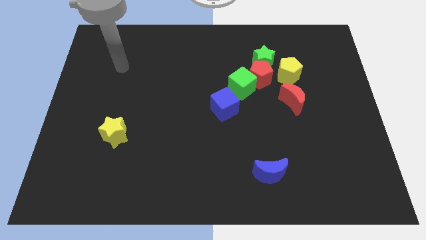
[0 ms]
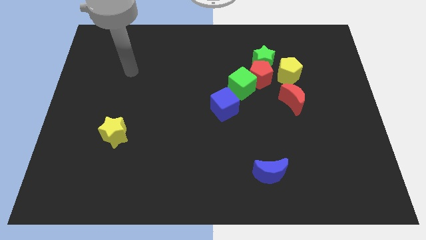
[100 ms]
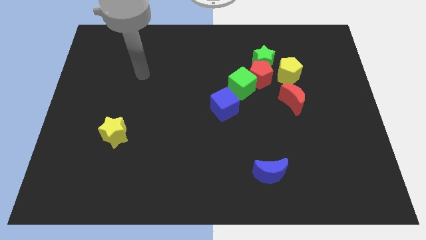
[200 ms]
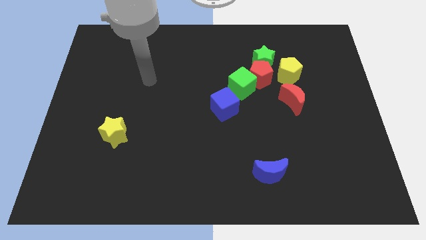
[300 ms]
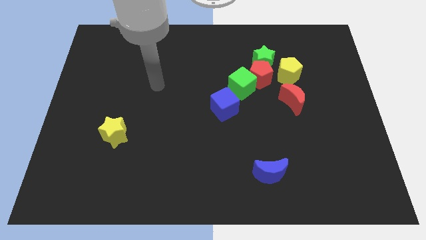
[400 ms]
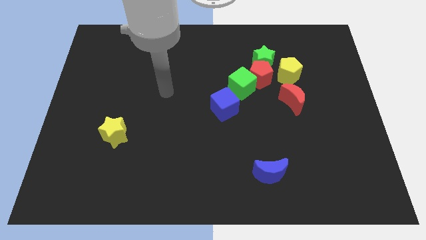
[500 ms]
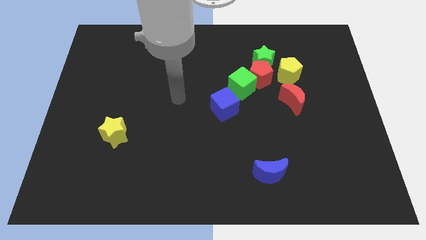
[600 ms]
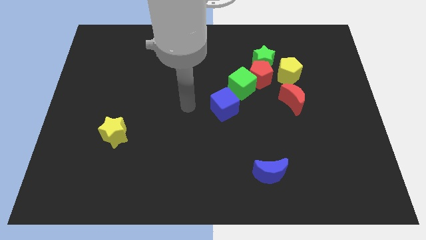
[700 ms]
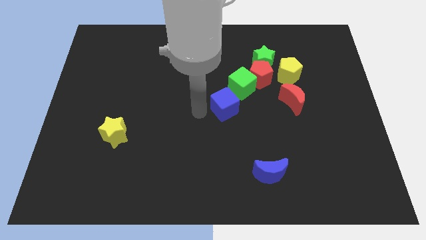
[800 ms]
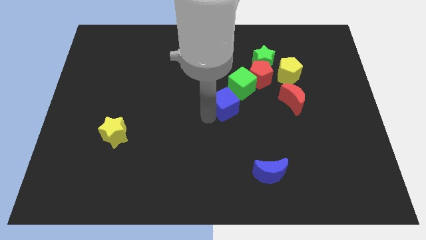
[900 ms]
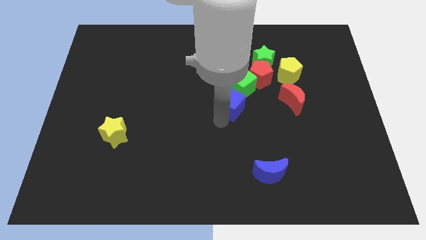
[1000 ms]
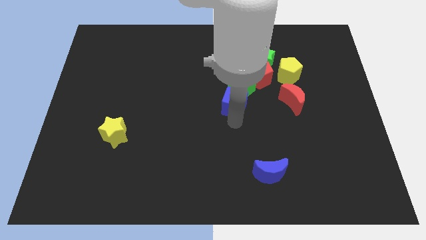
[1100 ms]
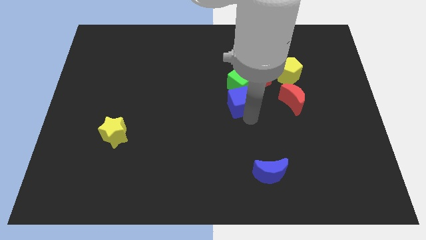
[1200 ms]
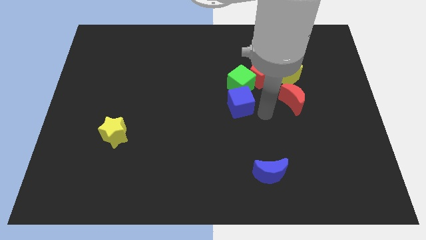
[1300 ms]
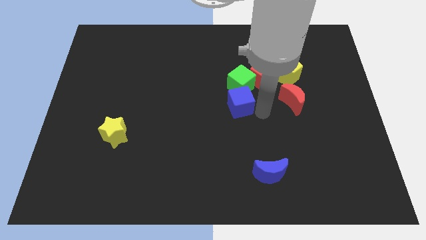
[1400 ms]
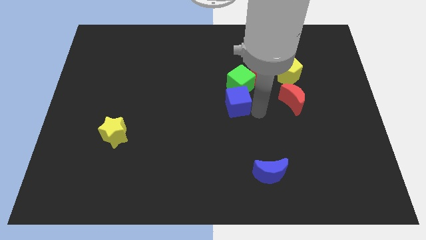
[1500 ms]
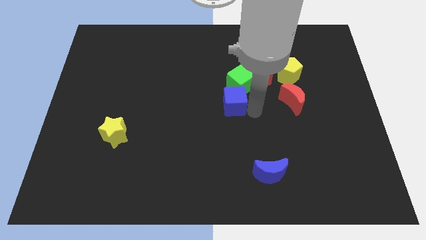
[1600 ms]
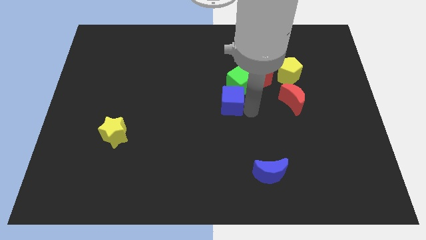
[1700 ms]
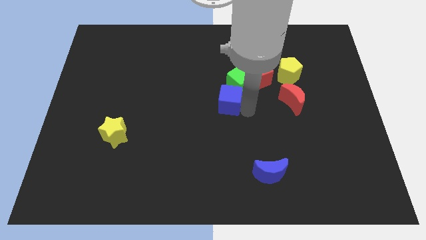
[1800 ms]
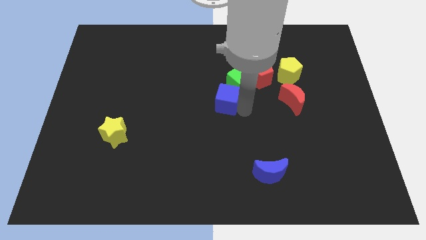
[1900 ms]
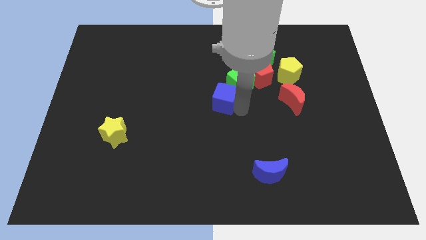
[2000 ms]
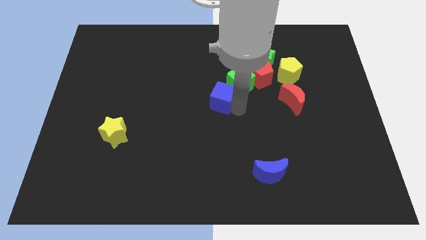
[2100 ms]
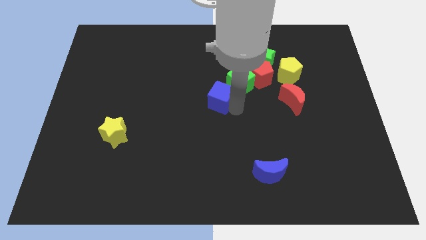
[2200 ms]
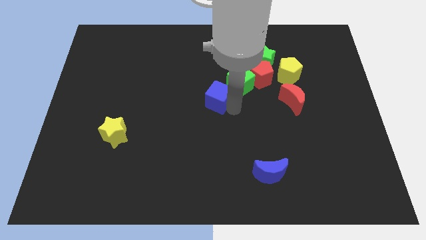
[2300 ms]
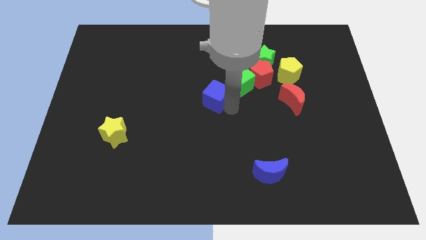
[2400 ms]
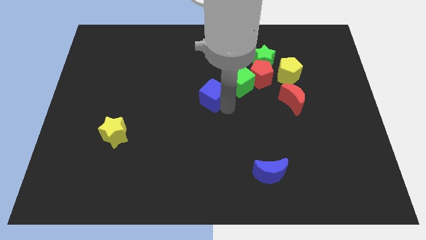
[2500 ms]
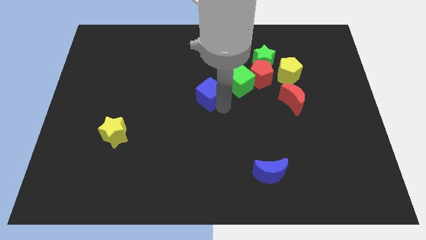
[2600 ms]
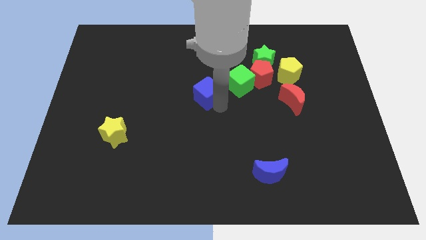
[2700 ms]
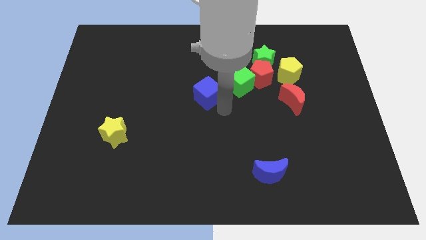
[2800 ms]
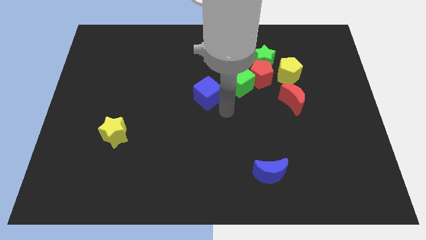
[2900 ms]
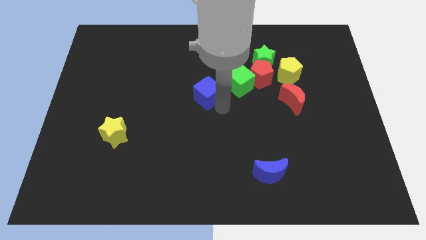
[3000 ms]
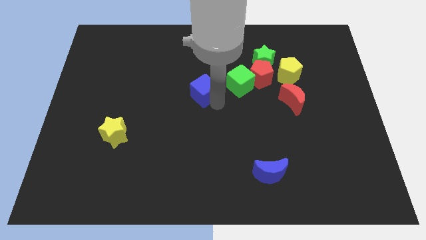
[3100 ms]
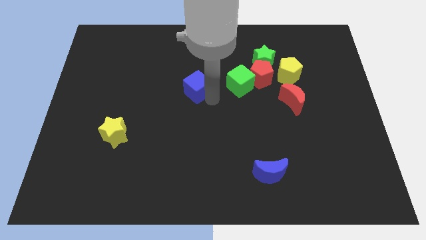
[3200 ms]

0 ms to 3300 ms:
push the blue cube up and to the left diagonally a little

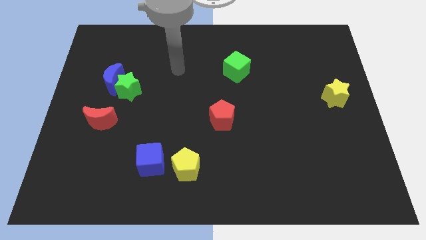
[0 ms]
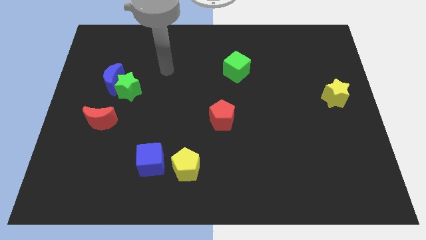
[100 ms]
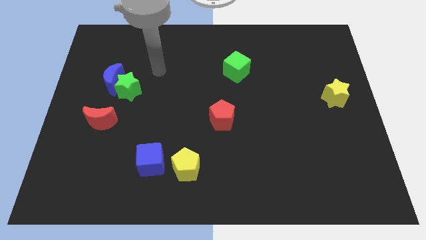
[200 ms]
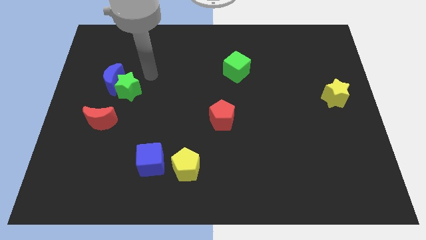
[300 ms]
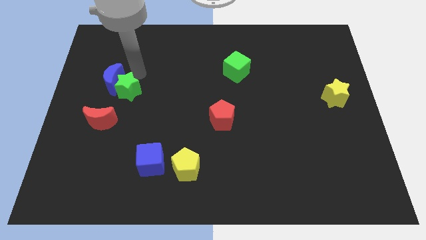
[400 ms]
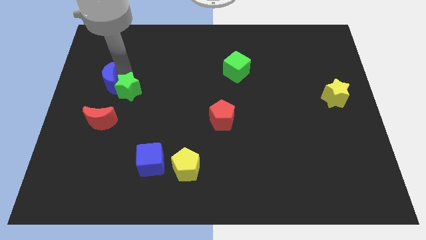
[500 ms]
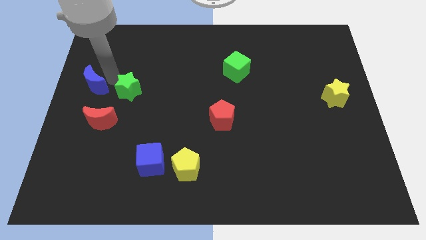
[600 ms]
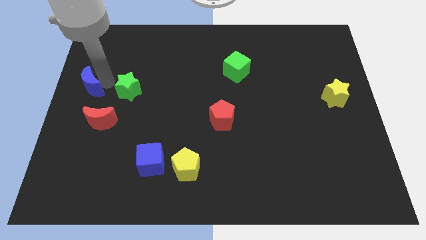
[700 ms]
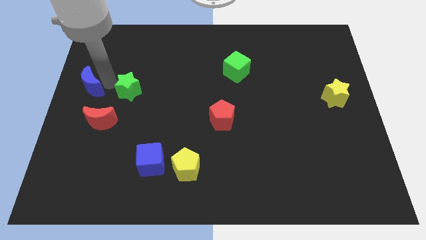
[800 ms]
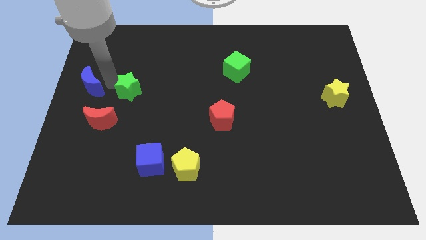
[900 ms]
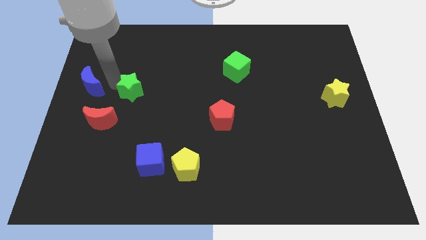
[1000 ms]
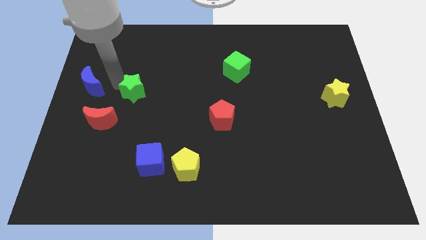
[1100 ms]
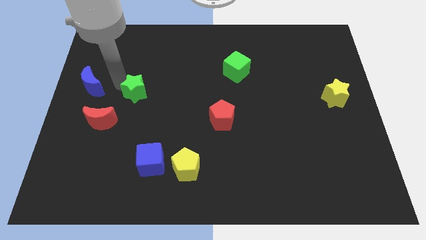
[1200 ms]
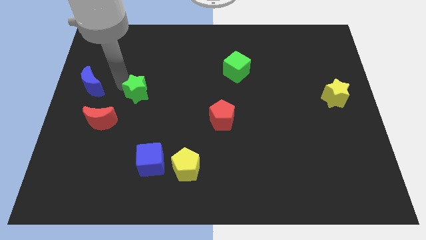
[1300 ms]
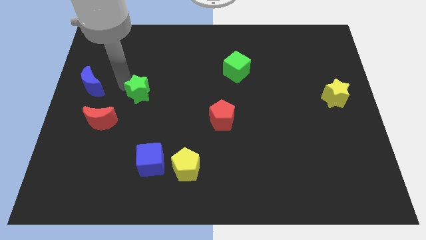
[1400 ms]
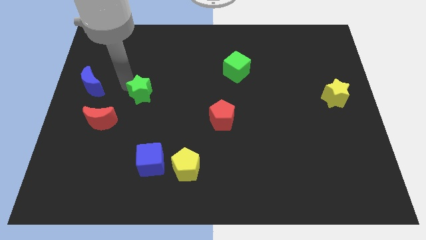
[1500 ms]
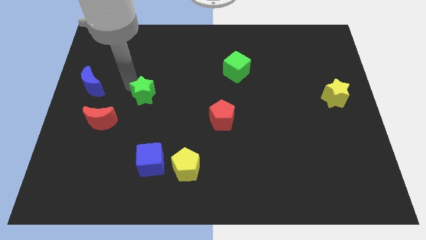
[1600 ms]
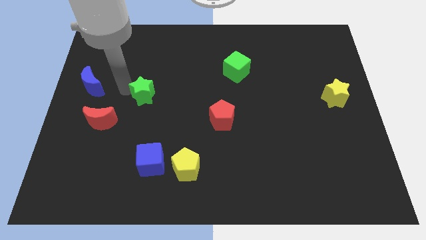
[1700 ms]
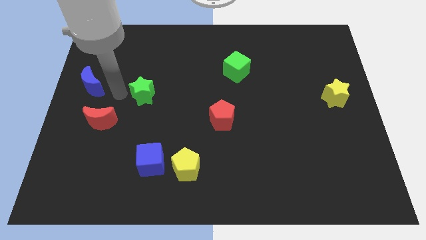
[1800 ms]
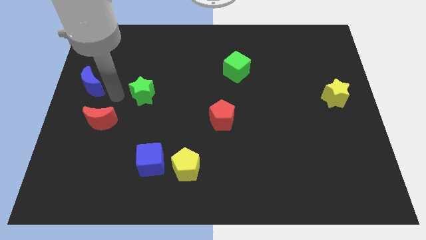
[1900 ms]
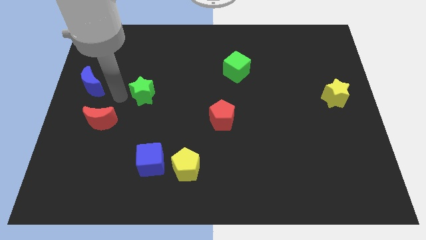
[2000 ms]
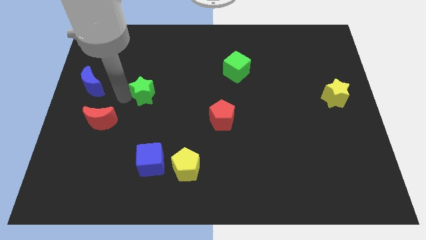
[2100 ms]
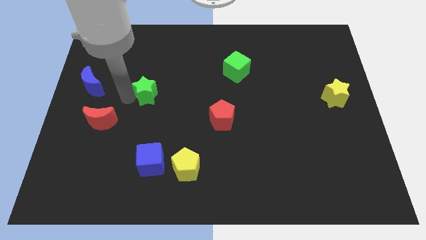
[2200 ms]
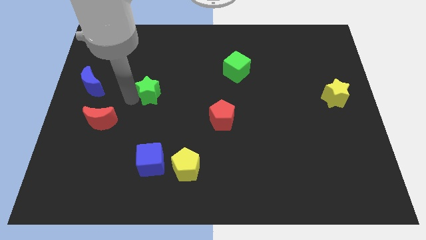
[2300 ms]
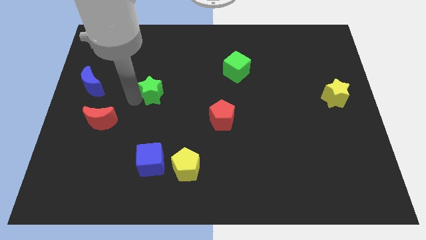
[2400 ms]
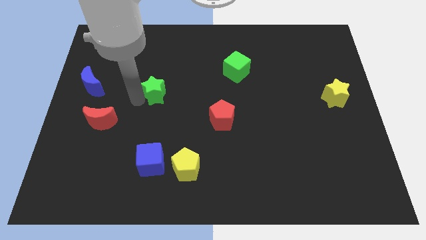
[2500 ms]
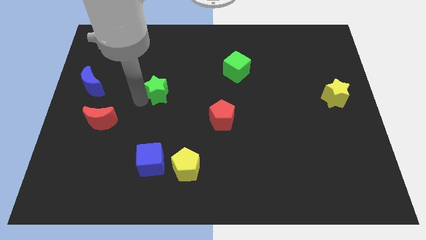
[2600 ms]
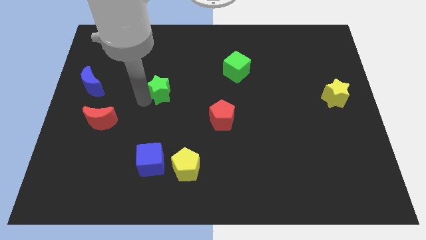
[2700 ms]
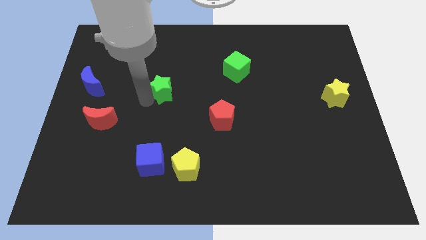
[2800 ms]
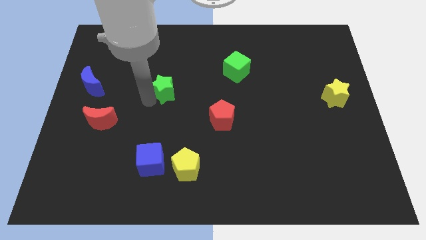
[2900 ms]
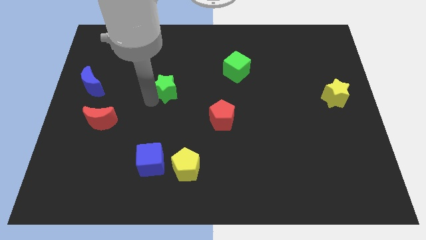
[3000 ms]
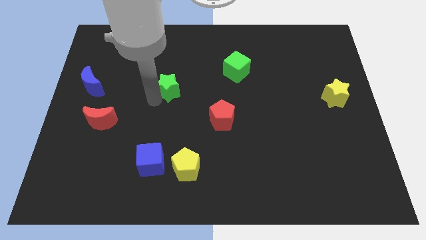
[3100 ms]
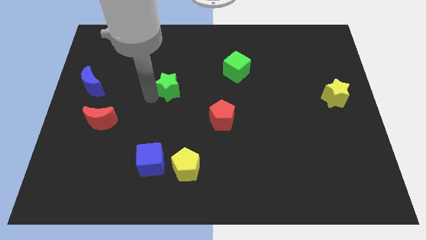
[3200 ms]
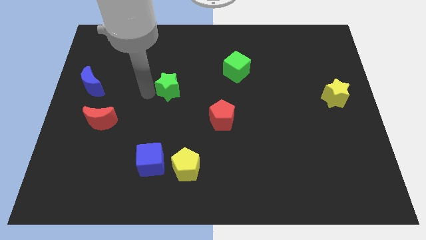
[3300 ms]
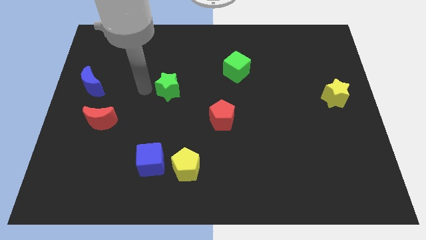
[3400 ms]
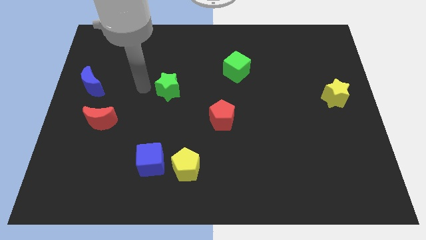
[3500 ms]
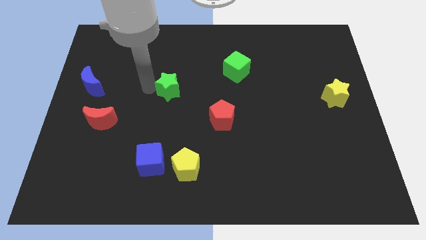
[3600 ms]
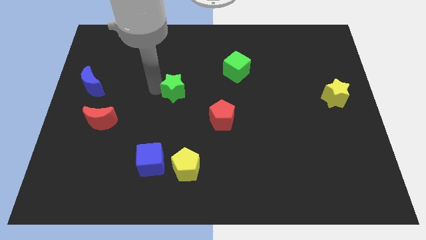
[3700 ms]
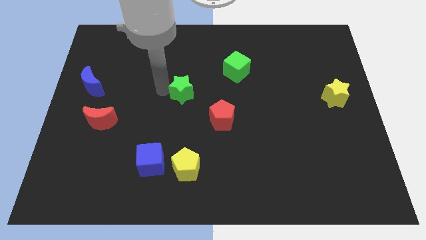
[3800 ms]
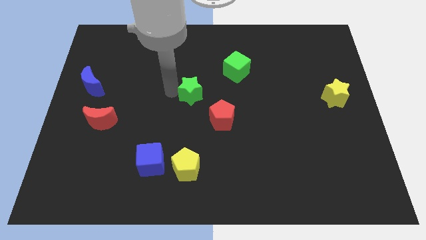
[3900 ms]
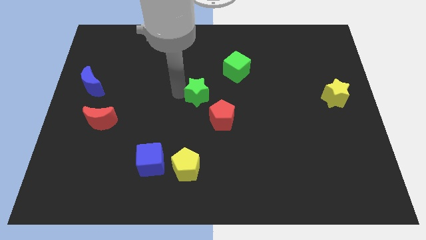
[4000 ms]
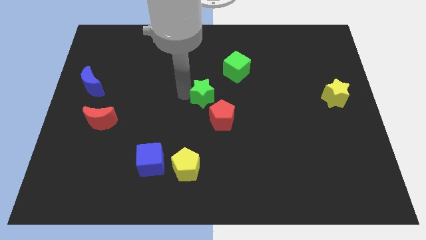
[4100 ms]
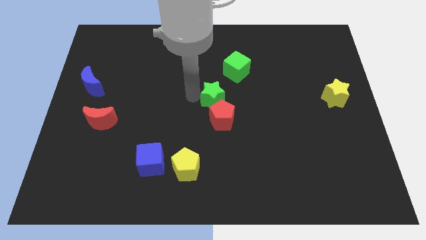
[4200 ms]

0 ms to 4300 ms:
move the green star right

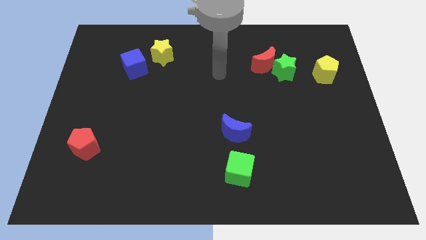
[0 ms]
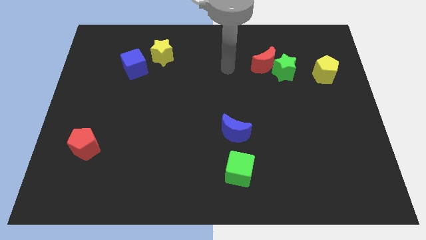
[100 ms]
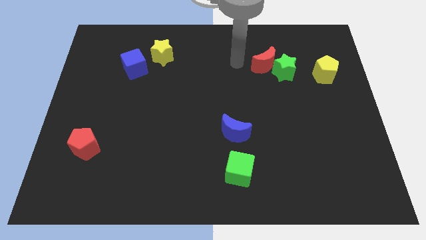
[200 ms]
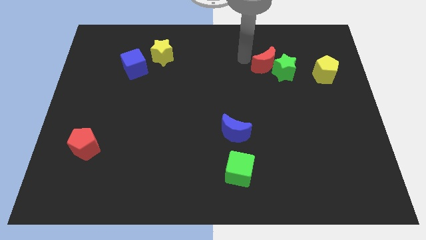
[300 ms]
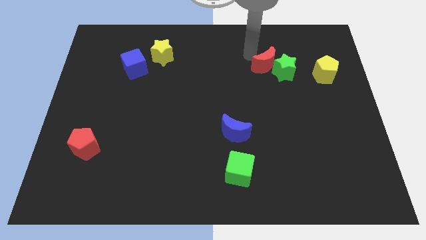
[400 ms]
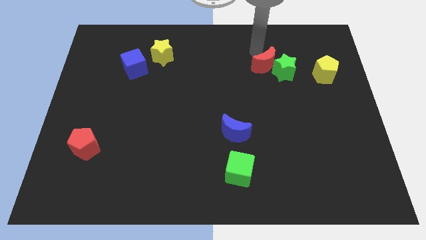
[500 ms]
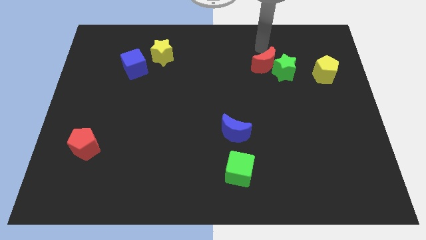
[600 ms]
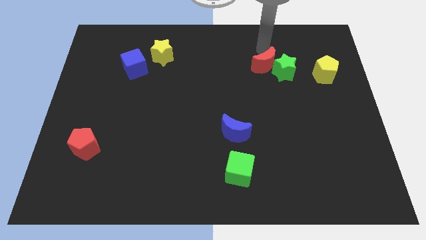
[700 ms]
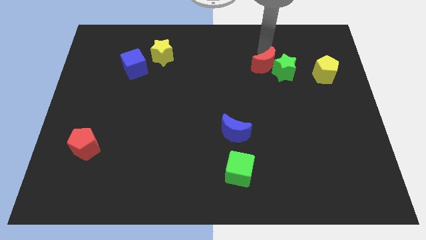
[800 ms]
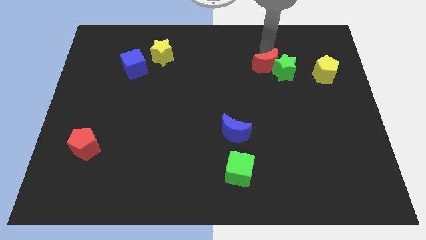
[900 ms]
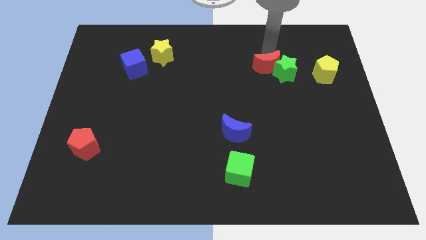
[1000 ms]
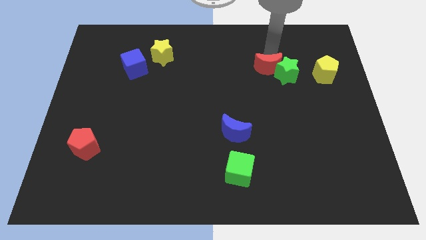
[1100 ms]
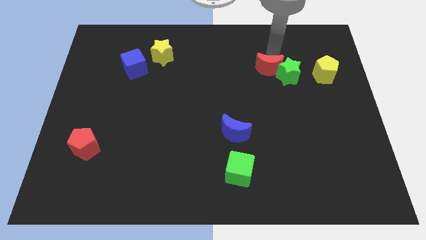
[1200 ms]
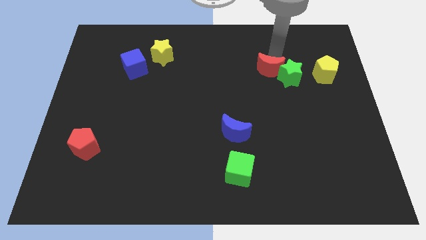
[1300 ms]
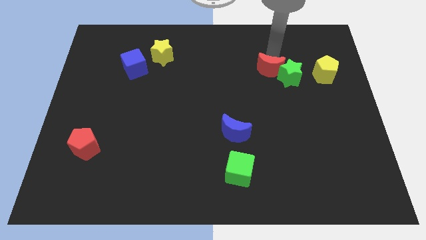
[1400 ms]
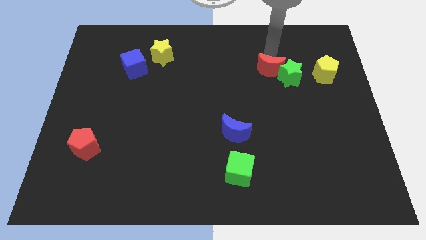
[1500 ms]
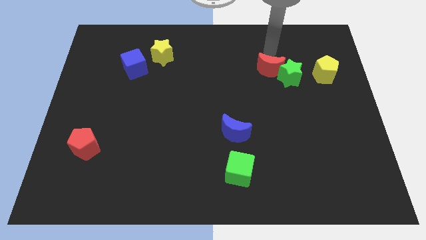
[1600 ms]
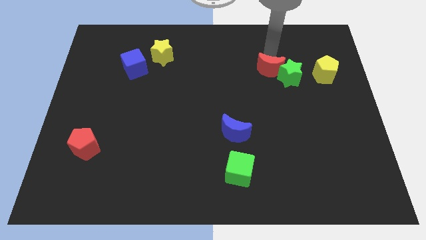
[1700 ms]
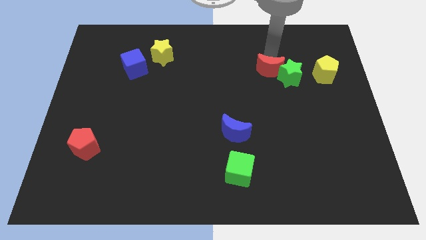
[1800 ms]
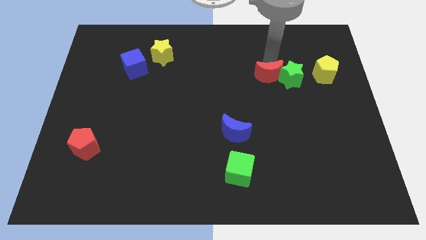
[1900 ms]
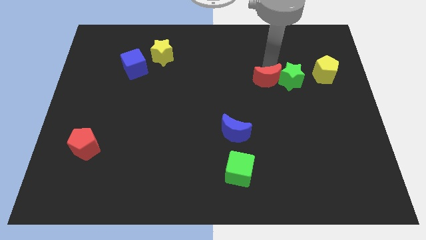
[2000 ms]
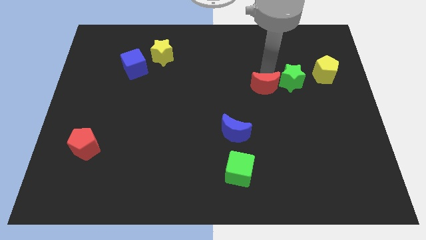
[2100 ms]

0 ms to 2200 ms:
push the red moon down somewhat
